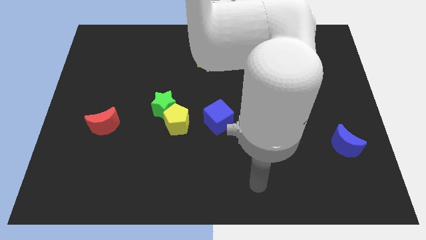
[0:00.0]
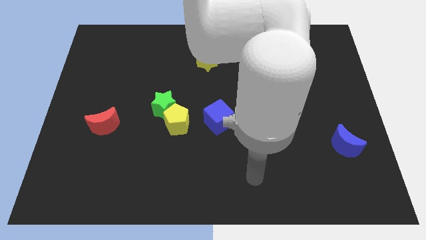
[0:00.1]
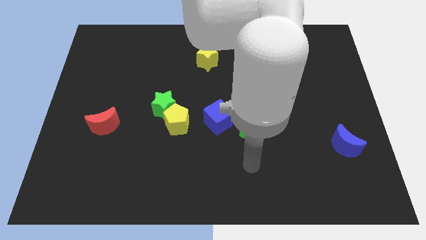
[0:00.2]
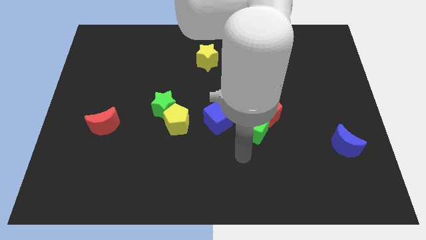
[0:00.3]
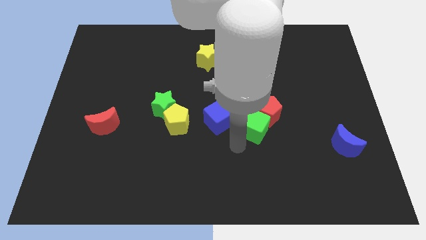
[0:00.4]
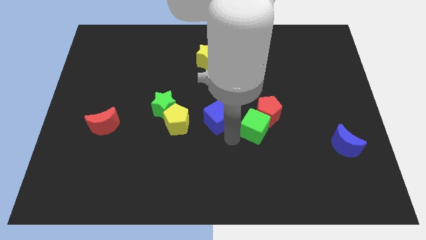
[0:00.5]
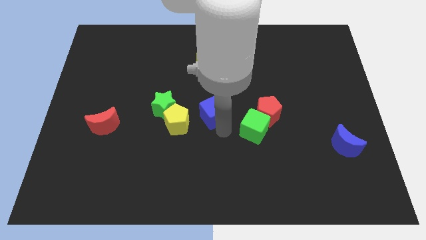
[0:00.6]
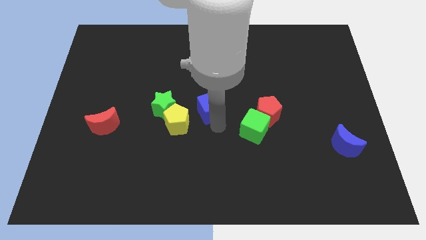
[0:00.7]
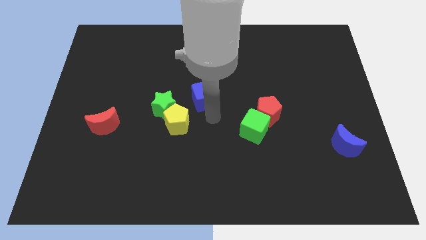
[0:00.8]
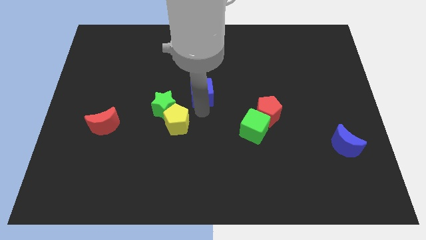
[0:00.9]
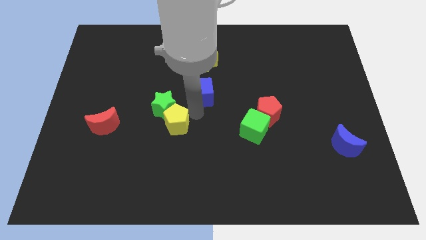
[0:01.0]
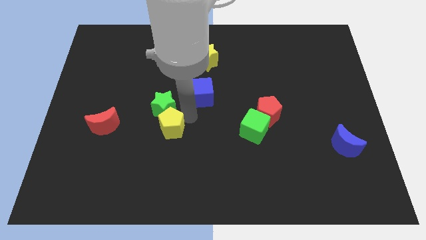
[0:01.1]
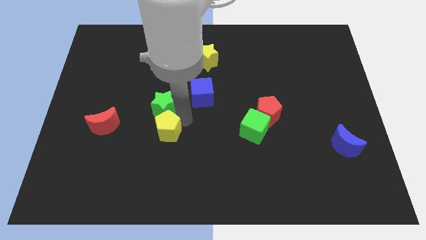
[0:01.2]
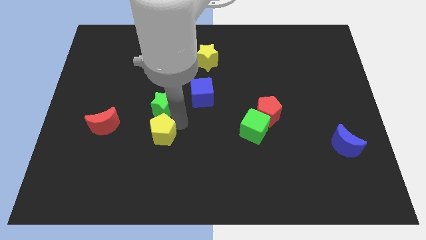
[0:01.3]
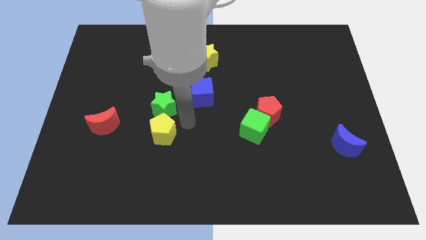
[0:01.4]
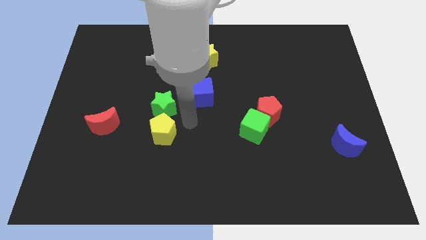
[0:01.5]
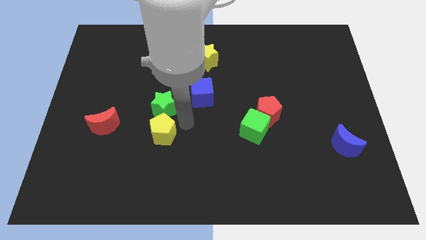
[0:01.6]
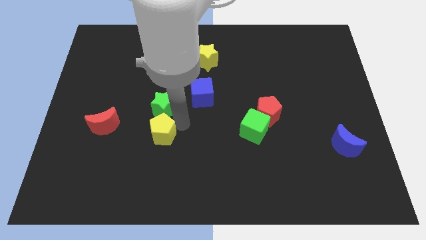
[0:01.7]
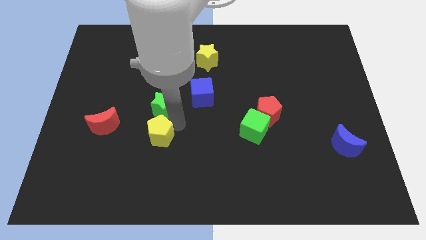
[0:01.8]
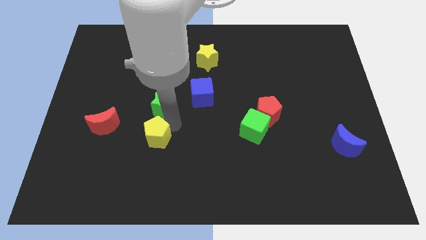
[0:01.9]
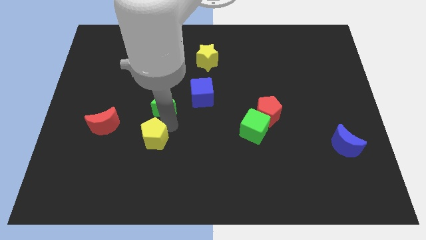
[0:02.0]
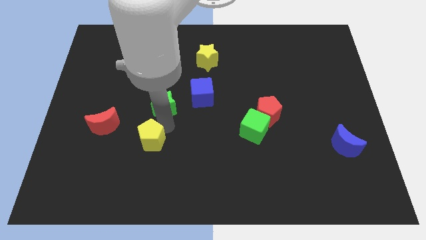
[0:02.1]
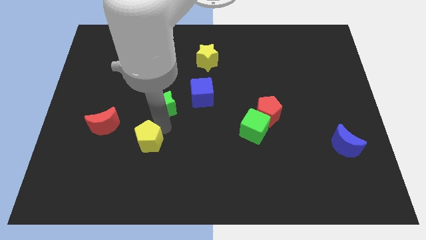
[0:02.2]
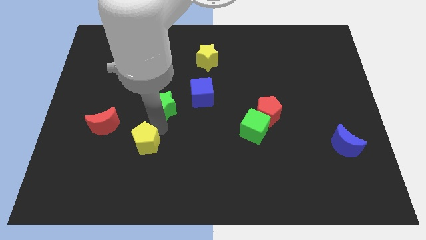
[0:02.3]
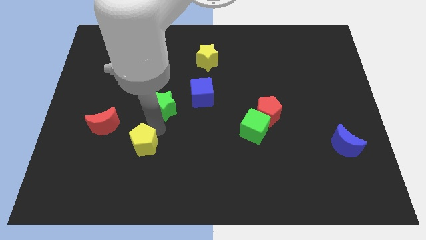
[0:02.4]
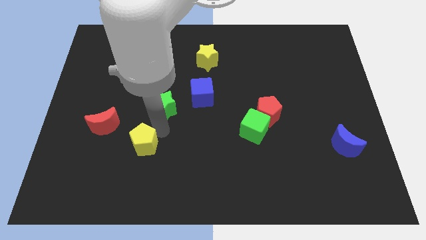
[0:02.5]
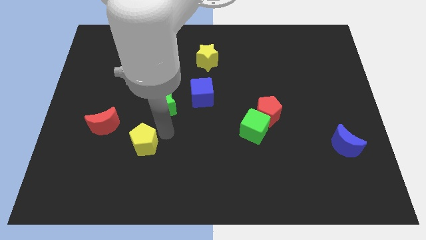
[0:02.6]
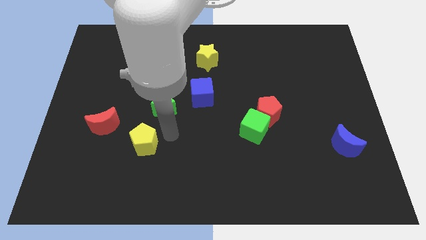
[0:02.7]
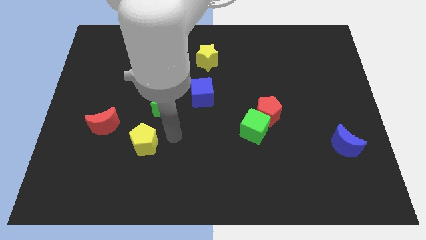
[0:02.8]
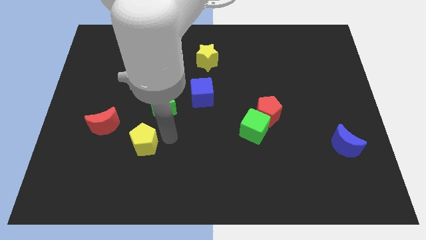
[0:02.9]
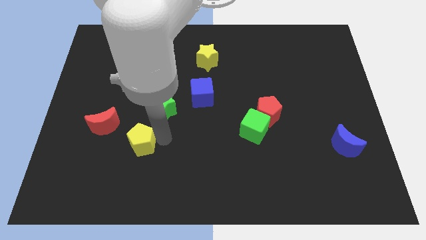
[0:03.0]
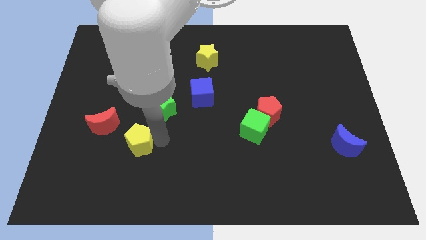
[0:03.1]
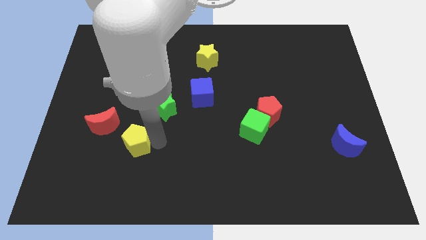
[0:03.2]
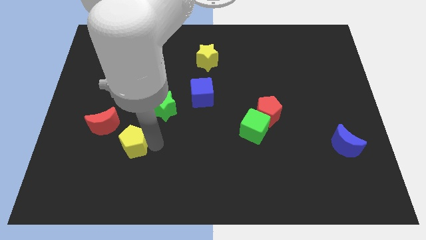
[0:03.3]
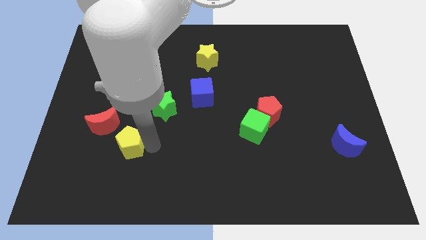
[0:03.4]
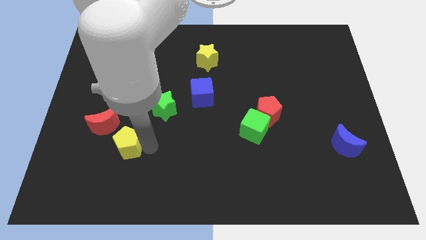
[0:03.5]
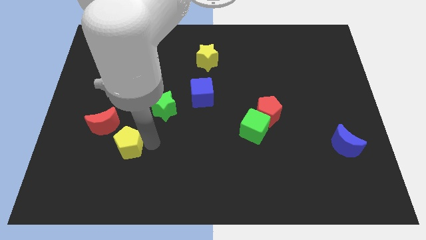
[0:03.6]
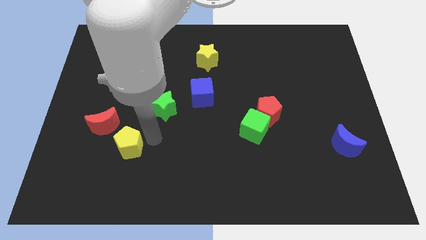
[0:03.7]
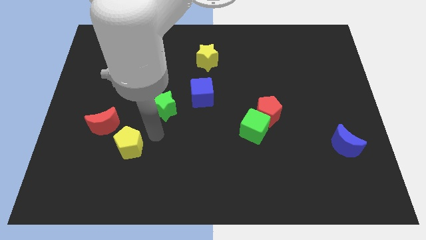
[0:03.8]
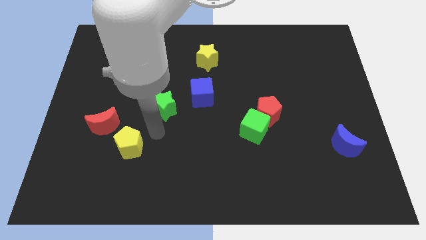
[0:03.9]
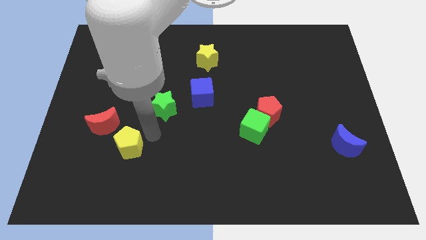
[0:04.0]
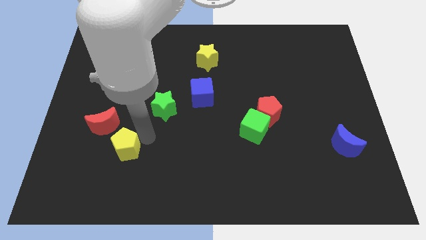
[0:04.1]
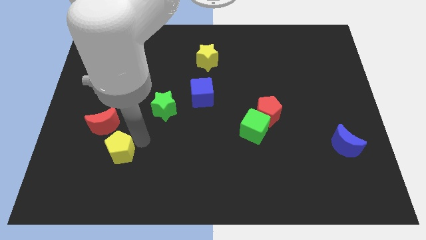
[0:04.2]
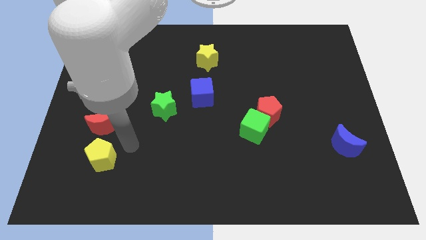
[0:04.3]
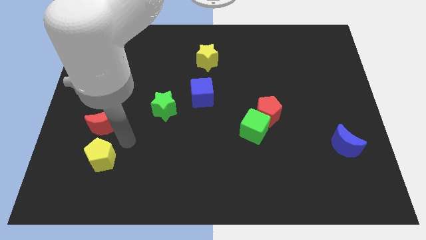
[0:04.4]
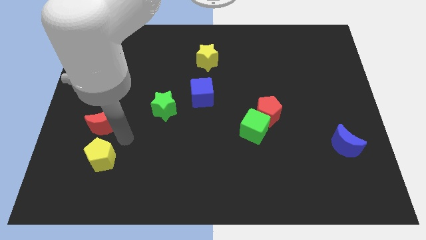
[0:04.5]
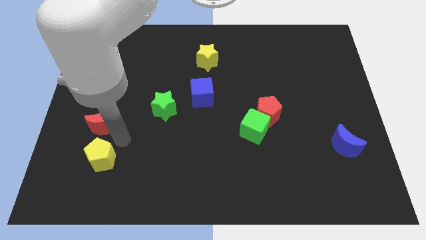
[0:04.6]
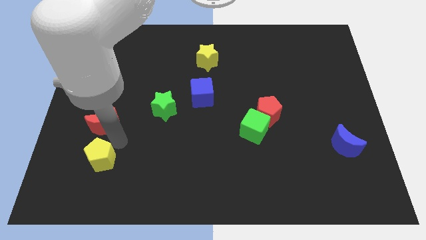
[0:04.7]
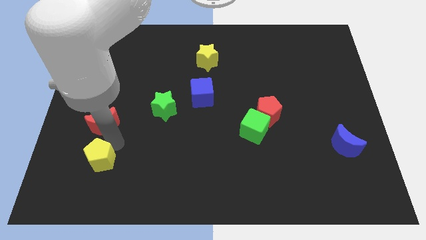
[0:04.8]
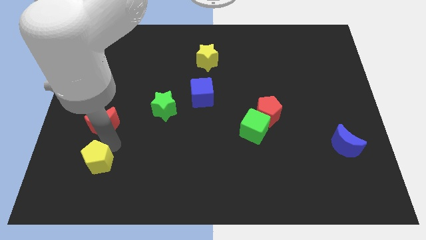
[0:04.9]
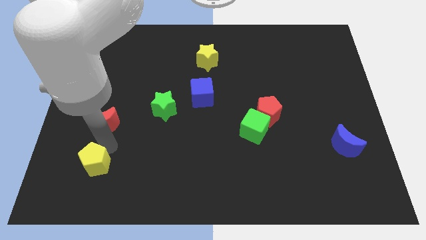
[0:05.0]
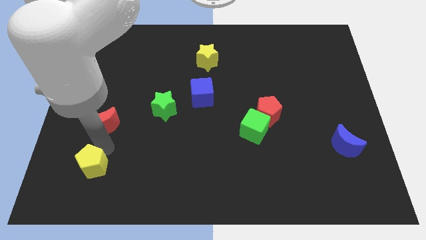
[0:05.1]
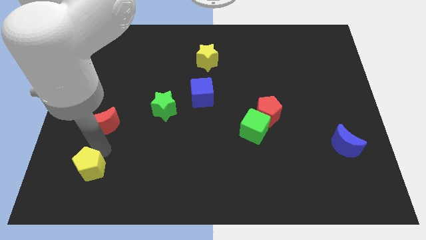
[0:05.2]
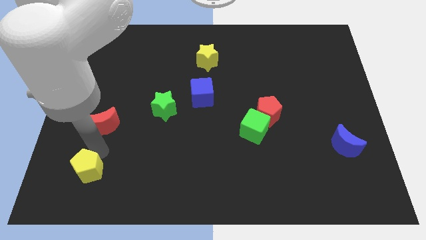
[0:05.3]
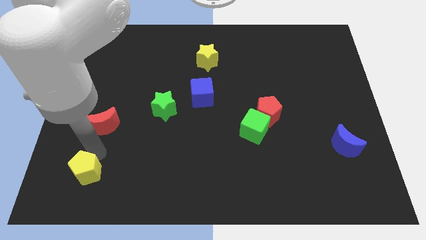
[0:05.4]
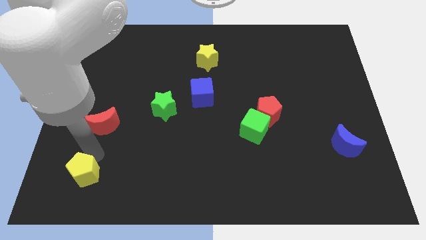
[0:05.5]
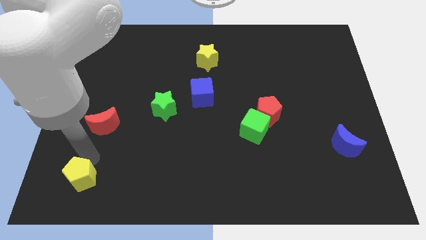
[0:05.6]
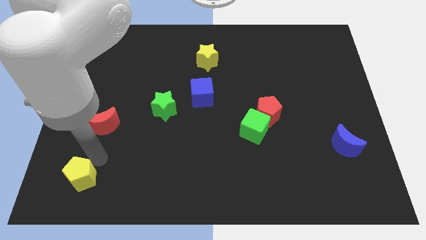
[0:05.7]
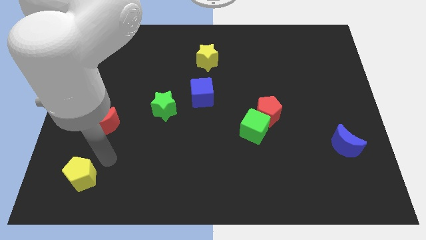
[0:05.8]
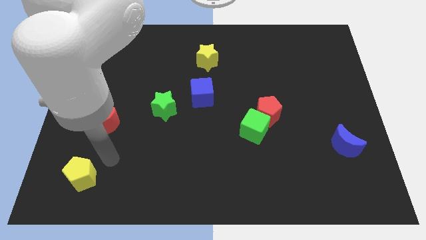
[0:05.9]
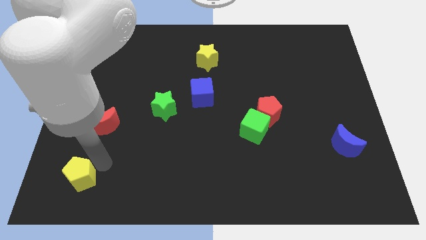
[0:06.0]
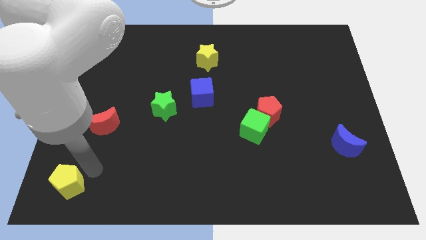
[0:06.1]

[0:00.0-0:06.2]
slide the yellow pentagon to the bottom left of the board
